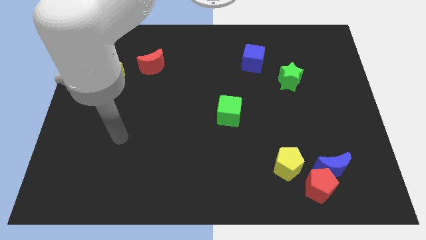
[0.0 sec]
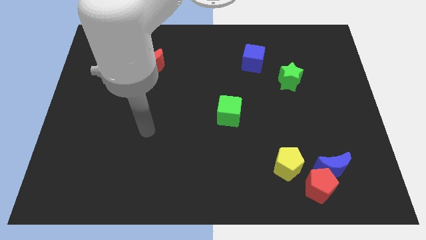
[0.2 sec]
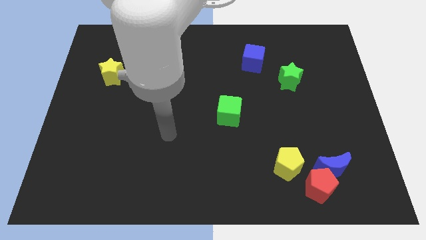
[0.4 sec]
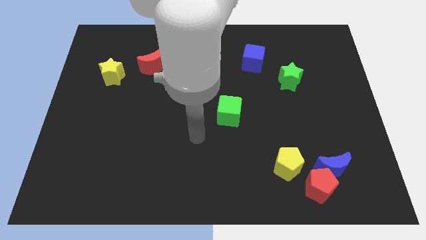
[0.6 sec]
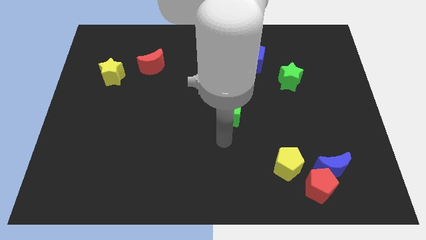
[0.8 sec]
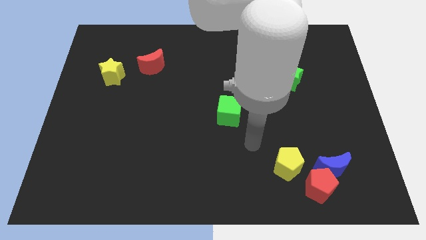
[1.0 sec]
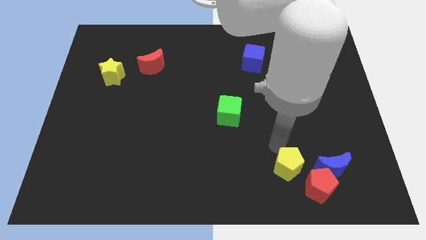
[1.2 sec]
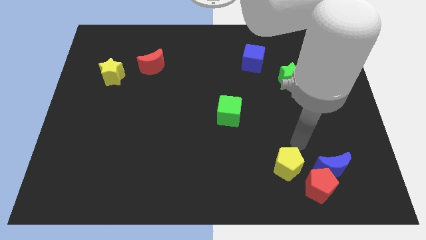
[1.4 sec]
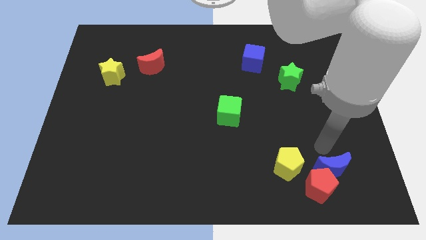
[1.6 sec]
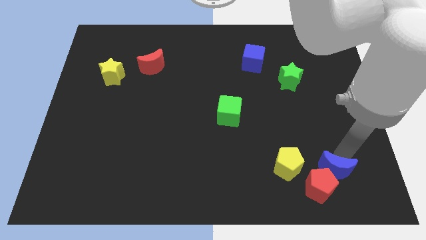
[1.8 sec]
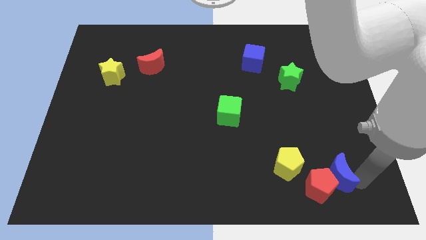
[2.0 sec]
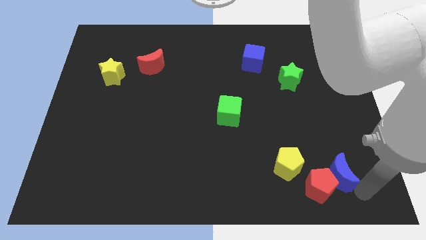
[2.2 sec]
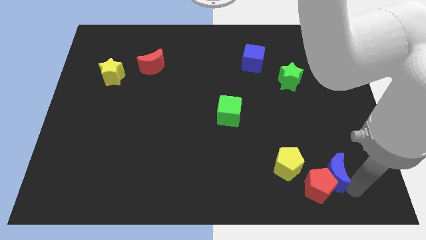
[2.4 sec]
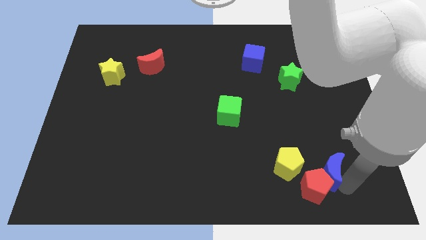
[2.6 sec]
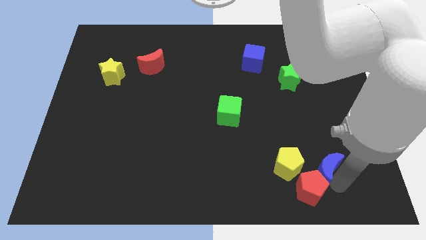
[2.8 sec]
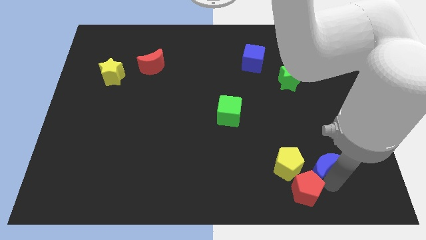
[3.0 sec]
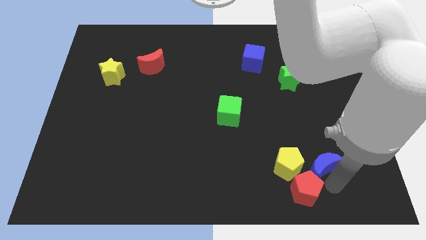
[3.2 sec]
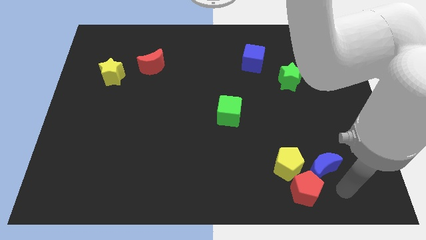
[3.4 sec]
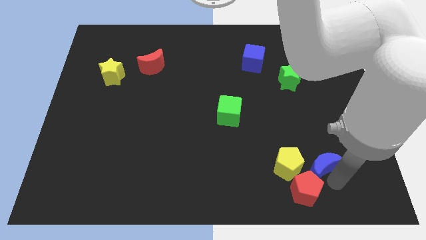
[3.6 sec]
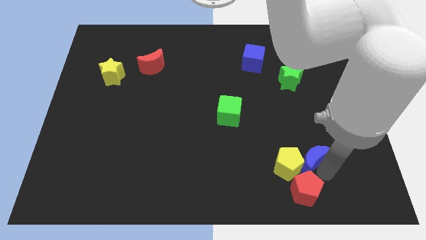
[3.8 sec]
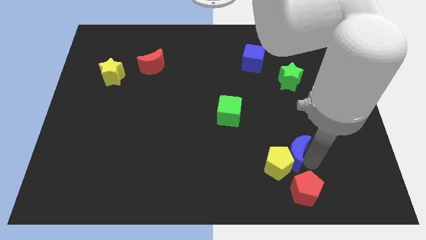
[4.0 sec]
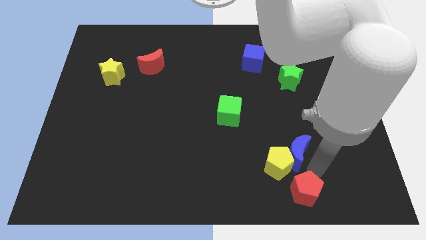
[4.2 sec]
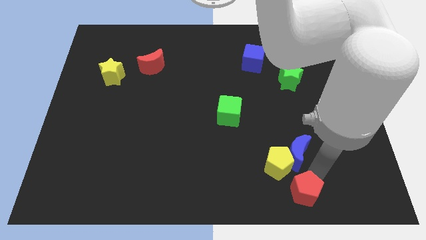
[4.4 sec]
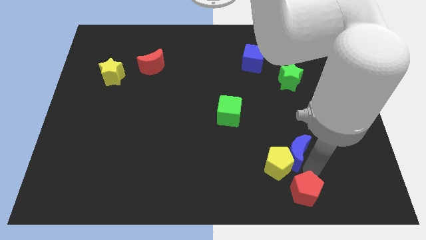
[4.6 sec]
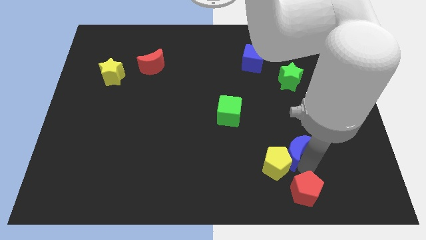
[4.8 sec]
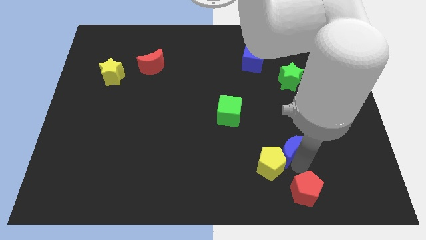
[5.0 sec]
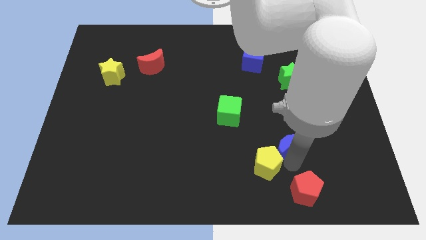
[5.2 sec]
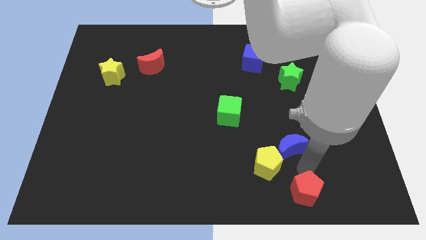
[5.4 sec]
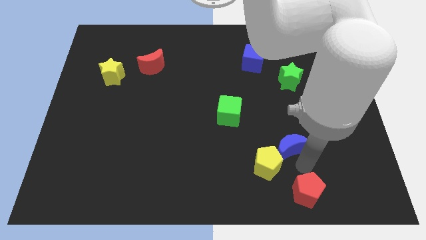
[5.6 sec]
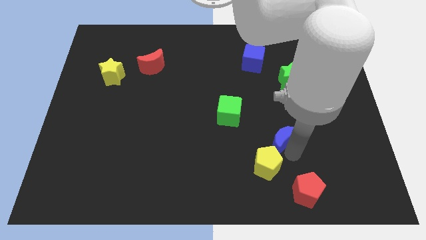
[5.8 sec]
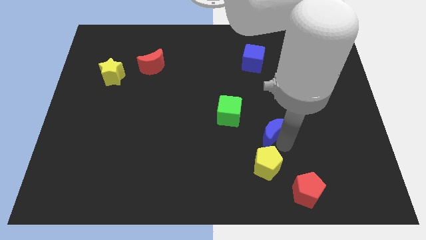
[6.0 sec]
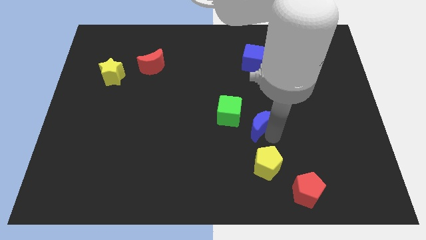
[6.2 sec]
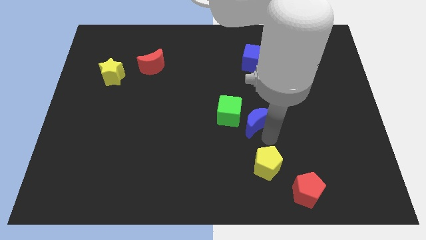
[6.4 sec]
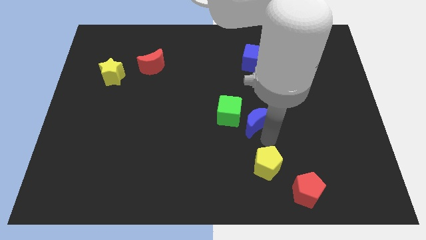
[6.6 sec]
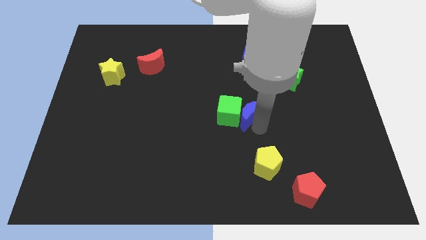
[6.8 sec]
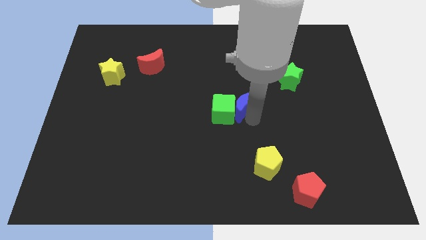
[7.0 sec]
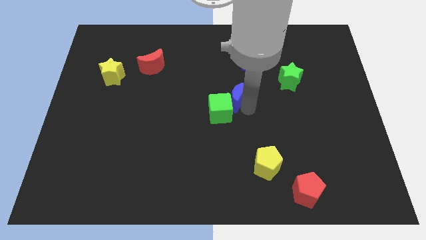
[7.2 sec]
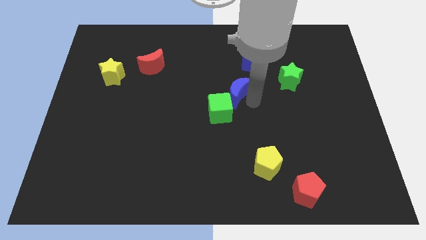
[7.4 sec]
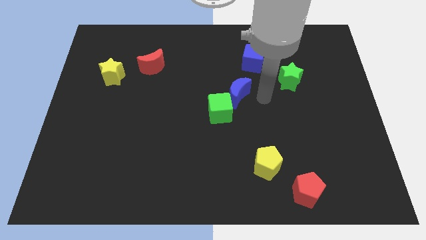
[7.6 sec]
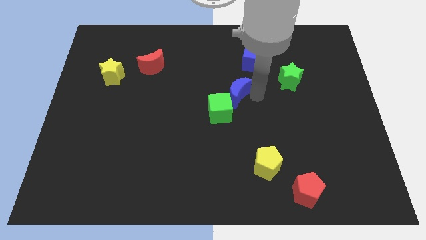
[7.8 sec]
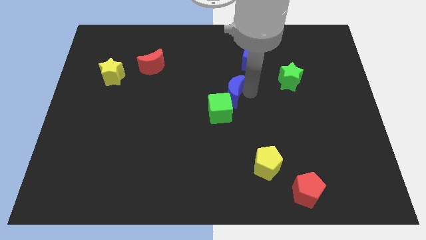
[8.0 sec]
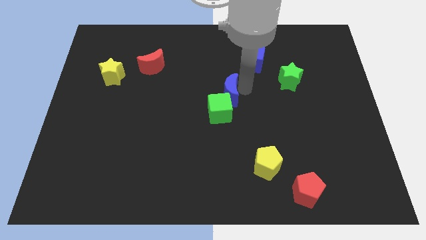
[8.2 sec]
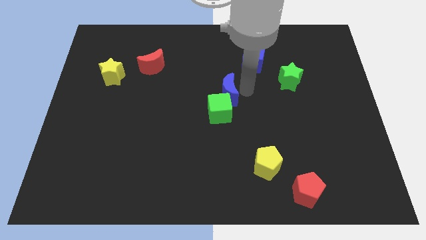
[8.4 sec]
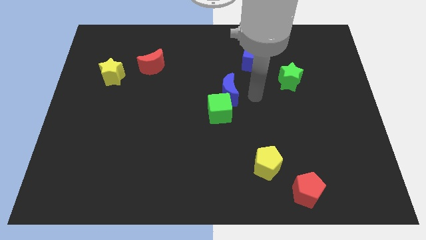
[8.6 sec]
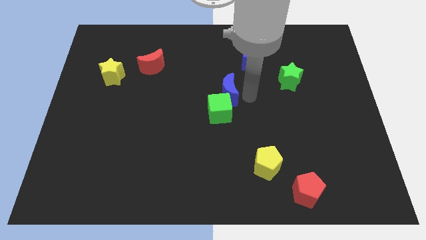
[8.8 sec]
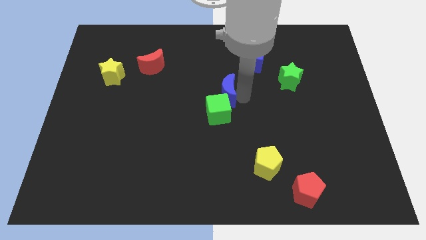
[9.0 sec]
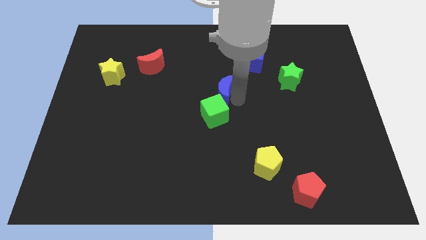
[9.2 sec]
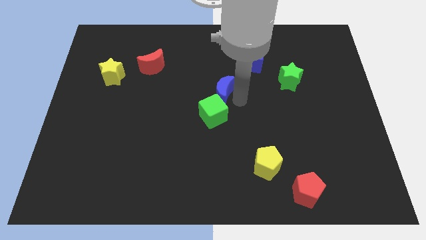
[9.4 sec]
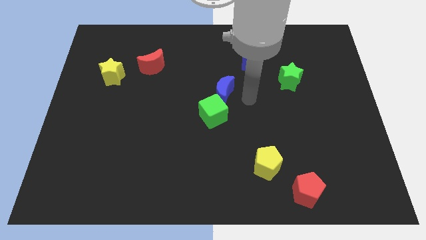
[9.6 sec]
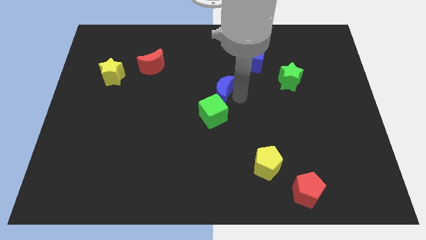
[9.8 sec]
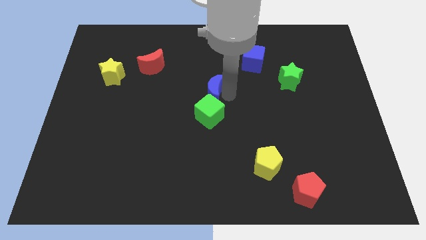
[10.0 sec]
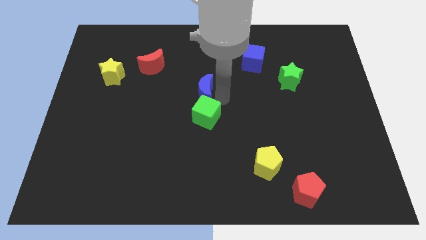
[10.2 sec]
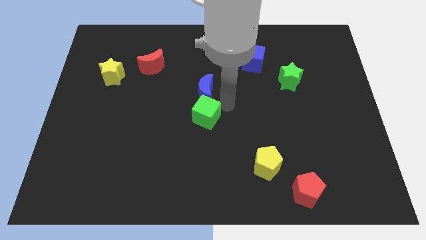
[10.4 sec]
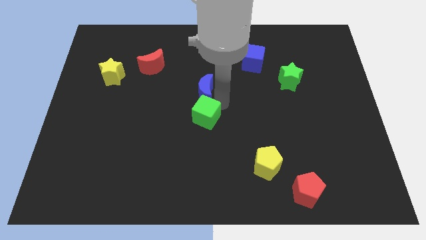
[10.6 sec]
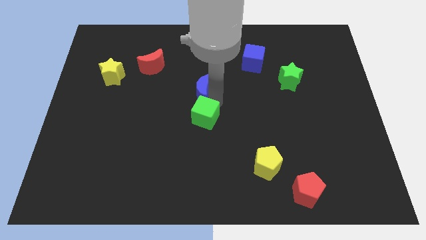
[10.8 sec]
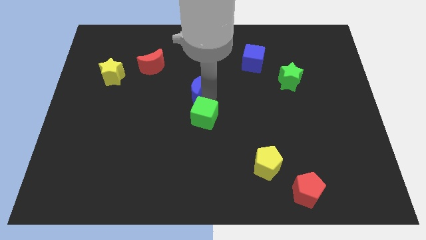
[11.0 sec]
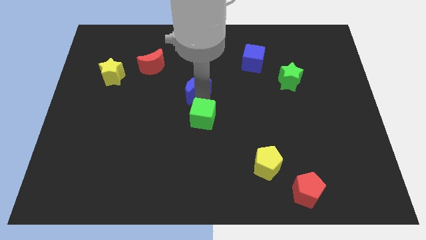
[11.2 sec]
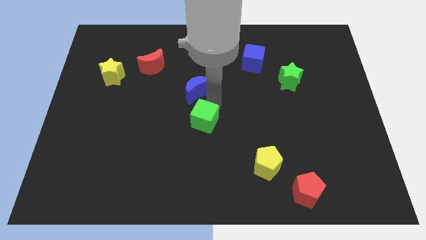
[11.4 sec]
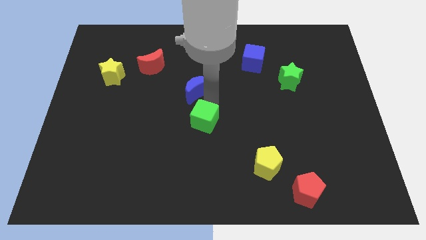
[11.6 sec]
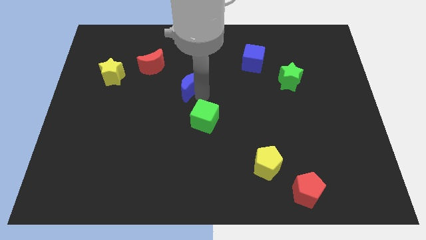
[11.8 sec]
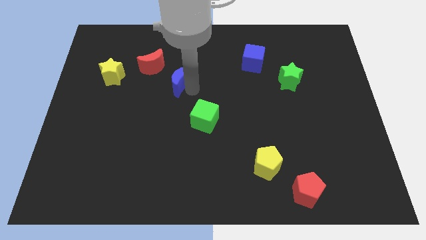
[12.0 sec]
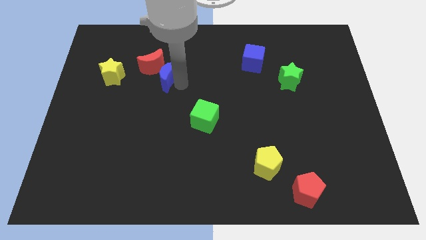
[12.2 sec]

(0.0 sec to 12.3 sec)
put the blue moon to the red moon
